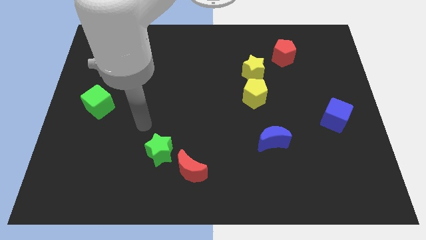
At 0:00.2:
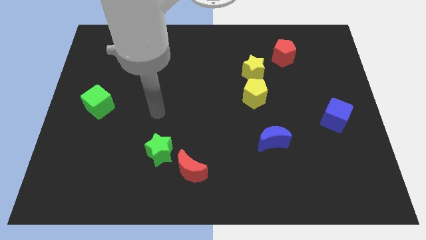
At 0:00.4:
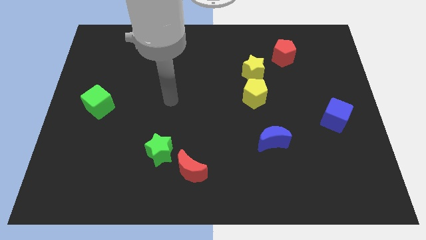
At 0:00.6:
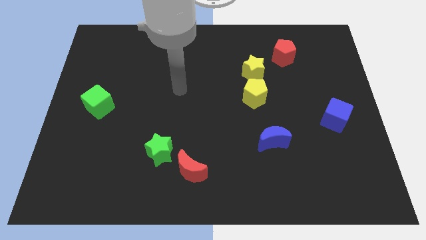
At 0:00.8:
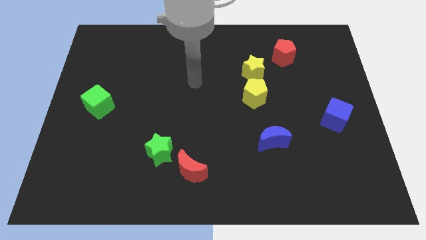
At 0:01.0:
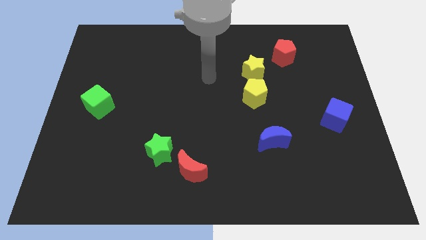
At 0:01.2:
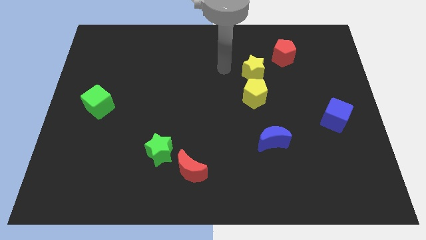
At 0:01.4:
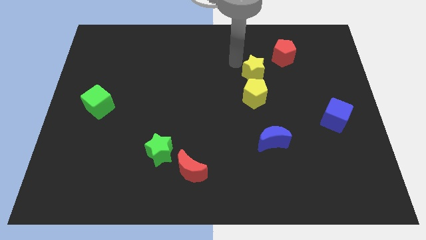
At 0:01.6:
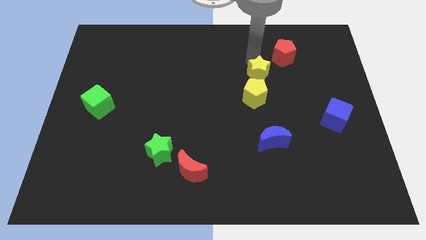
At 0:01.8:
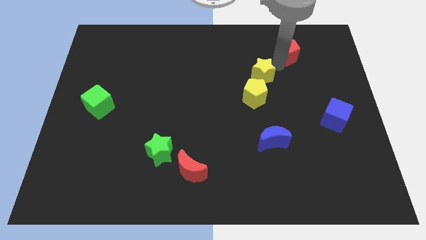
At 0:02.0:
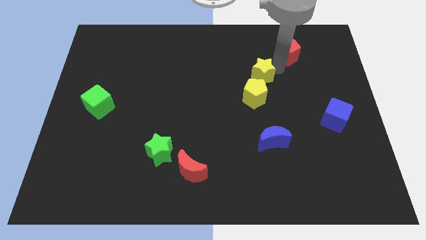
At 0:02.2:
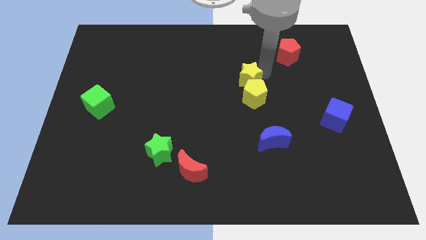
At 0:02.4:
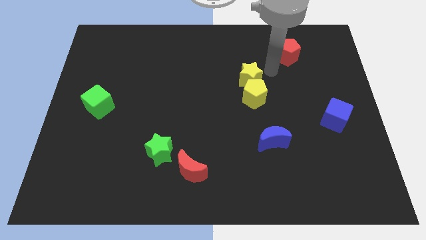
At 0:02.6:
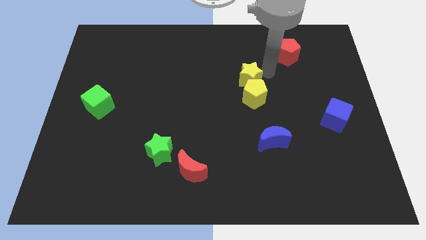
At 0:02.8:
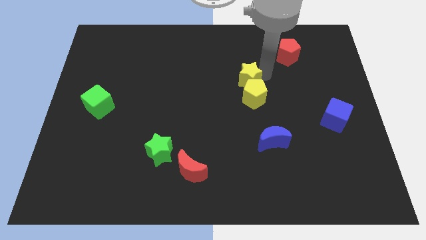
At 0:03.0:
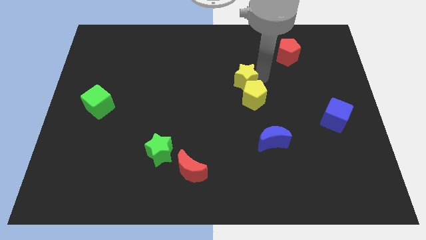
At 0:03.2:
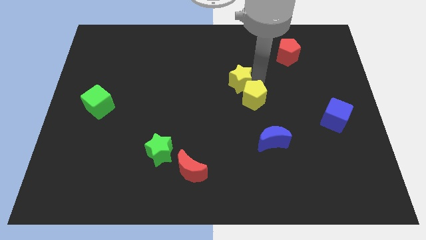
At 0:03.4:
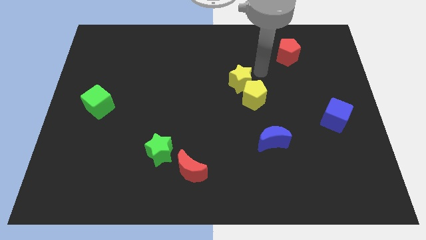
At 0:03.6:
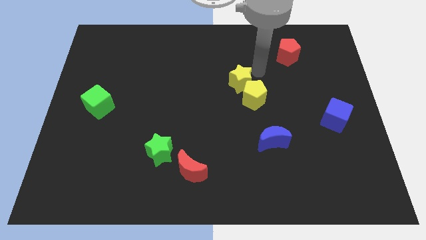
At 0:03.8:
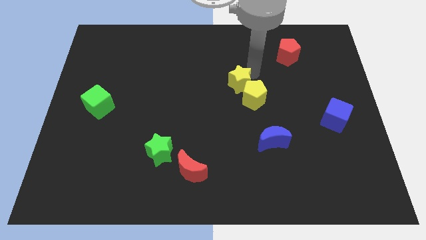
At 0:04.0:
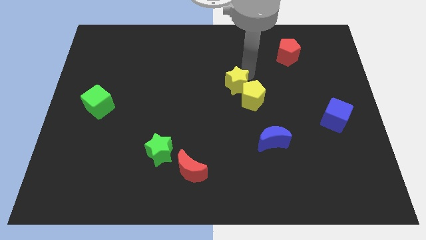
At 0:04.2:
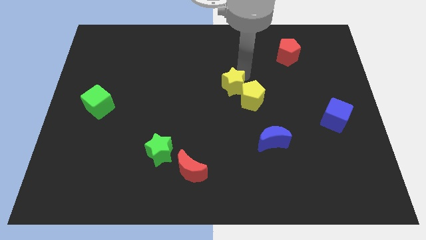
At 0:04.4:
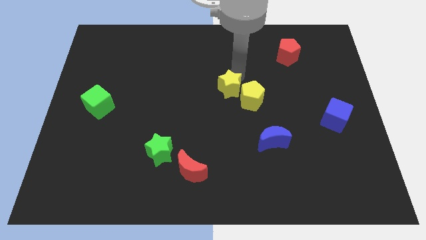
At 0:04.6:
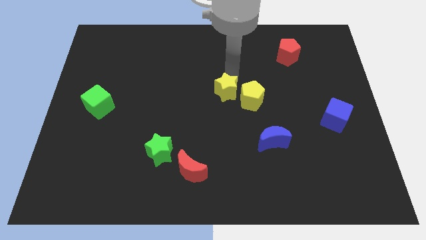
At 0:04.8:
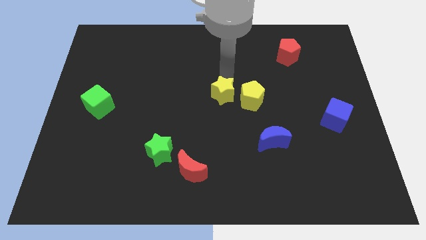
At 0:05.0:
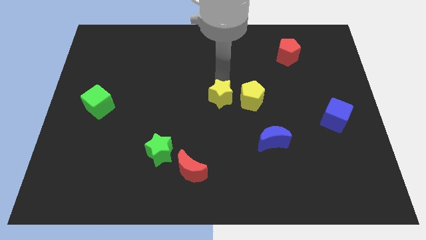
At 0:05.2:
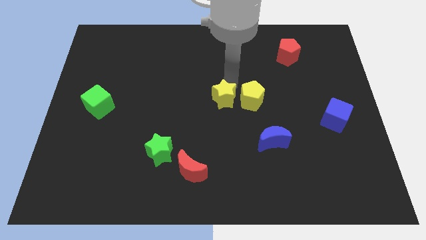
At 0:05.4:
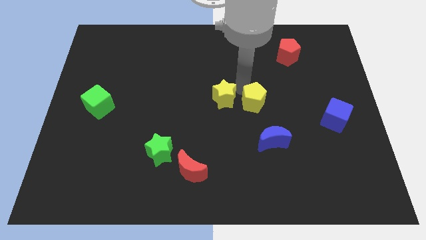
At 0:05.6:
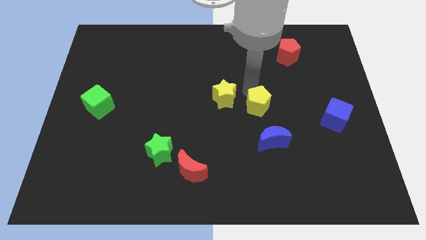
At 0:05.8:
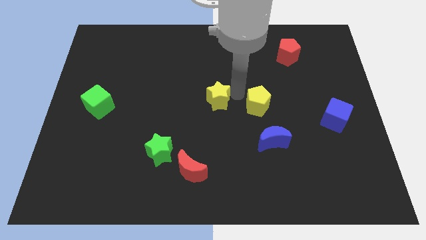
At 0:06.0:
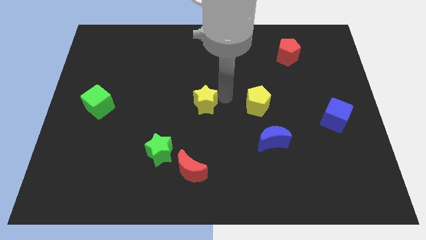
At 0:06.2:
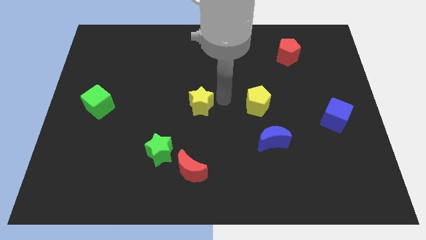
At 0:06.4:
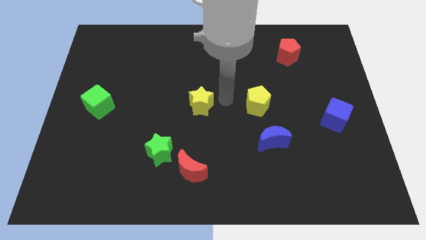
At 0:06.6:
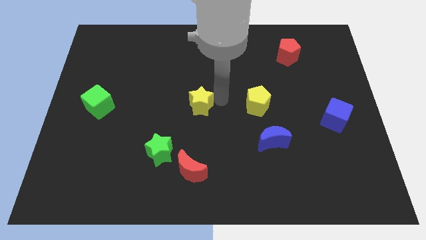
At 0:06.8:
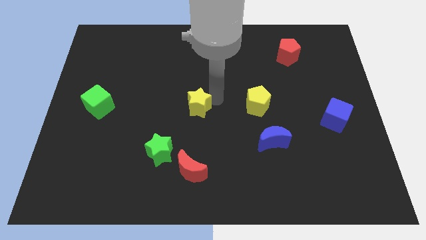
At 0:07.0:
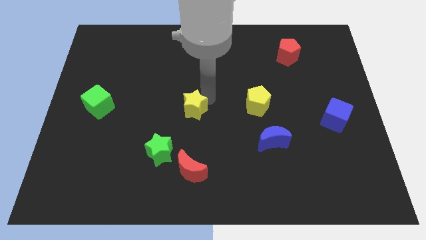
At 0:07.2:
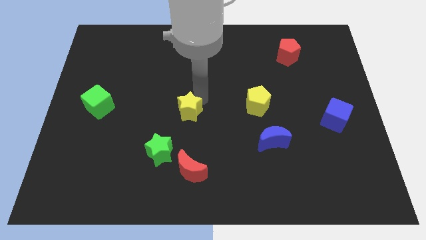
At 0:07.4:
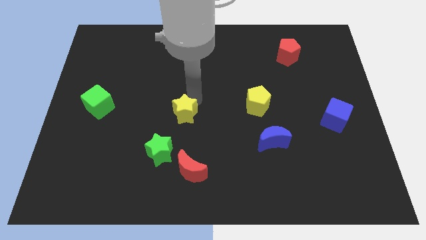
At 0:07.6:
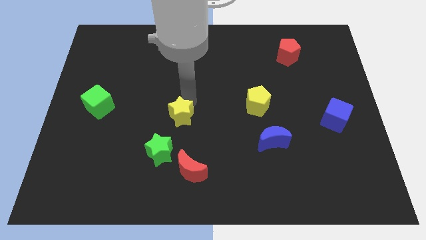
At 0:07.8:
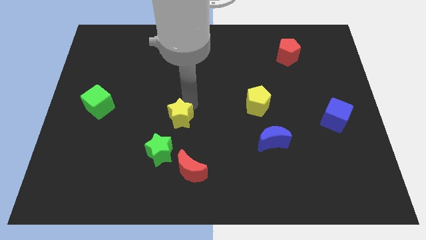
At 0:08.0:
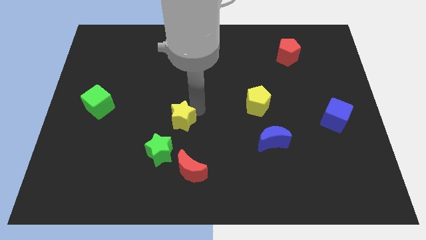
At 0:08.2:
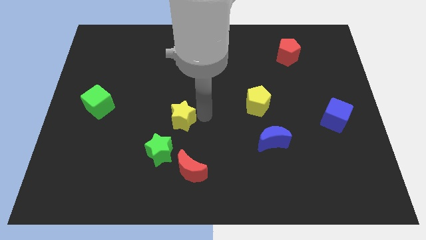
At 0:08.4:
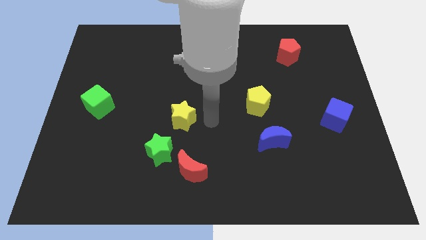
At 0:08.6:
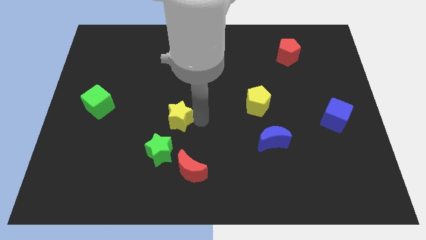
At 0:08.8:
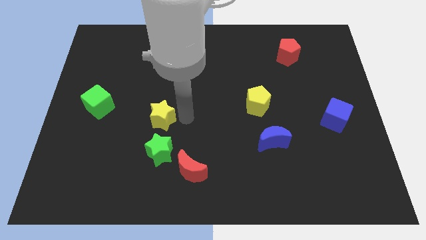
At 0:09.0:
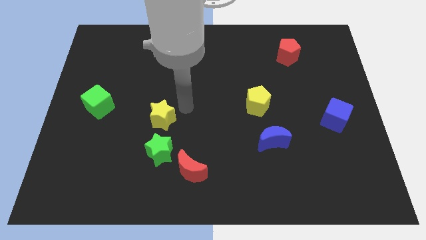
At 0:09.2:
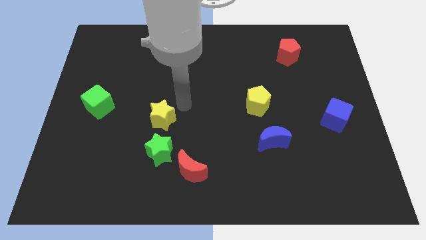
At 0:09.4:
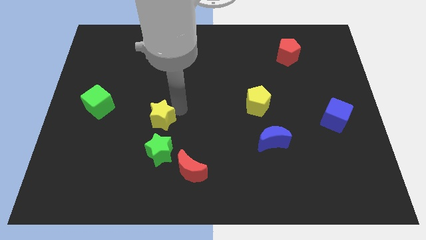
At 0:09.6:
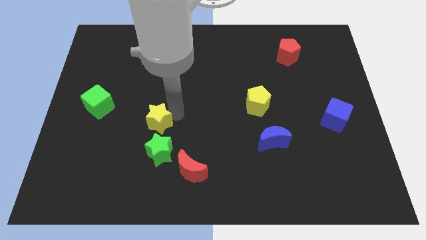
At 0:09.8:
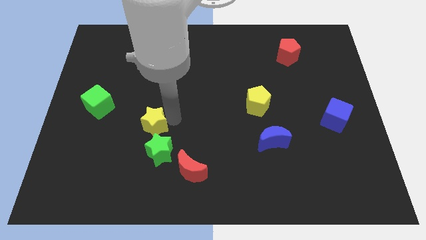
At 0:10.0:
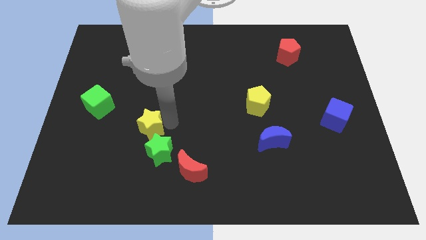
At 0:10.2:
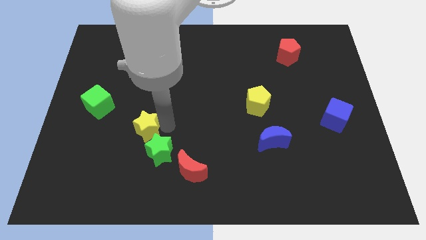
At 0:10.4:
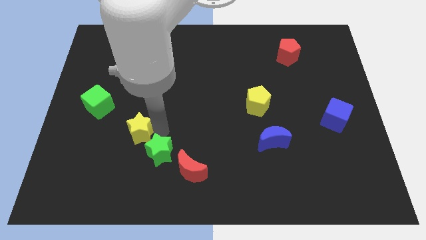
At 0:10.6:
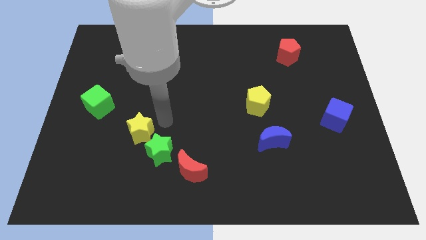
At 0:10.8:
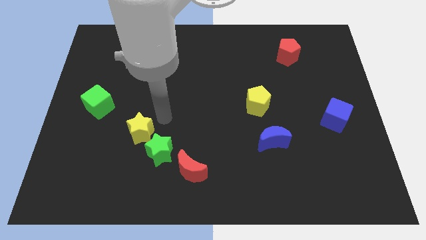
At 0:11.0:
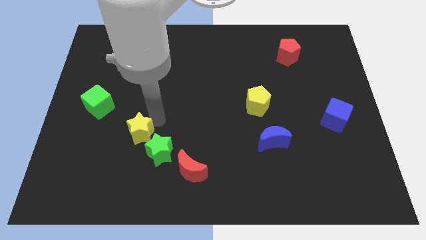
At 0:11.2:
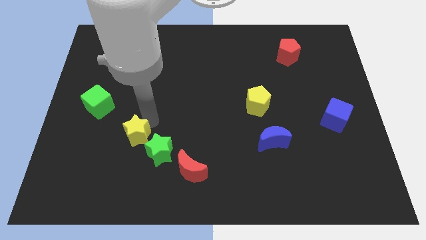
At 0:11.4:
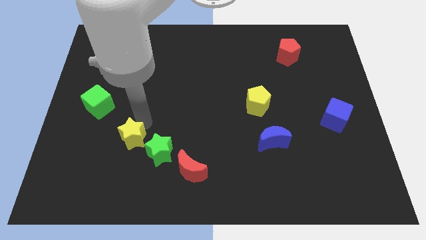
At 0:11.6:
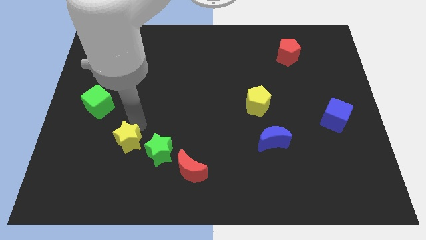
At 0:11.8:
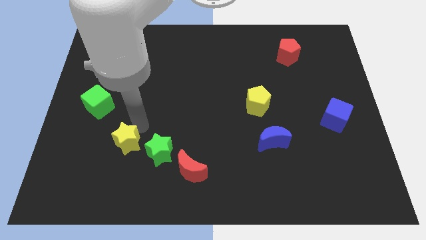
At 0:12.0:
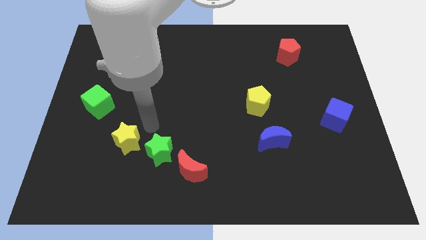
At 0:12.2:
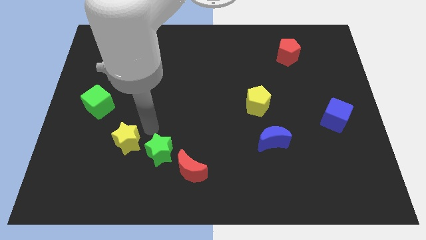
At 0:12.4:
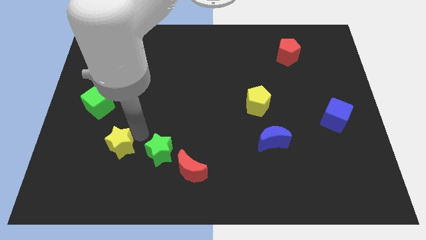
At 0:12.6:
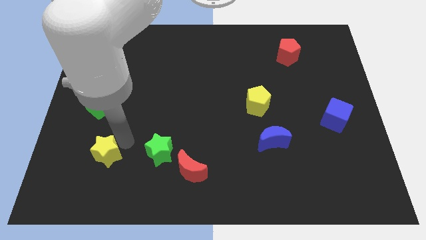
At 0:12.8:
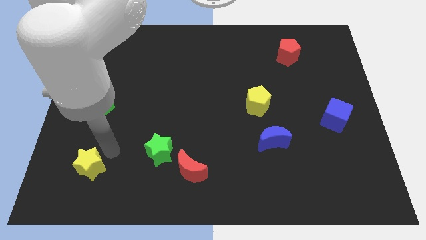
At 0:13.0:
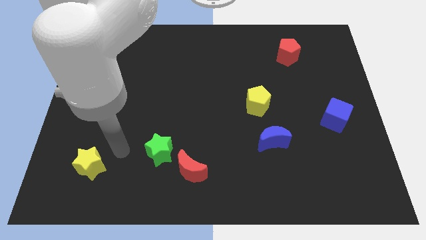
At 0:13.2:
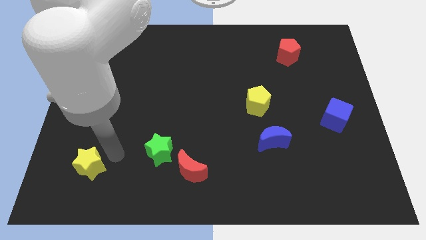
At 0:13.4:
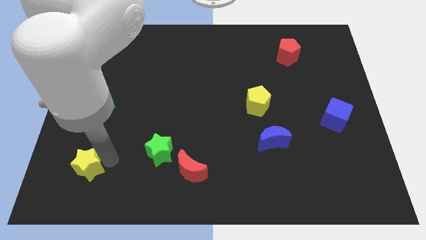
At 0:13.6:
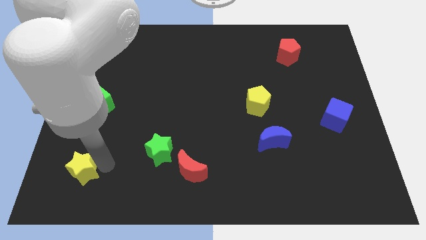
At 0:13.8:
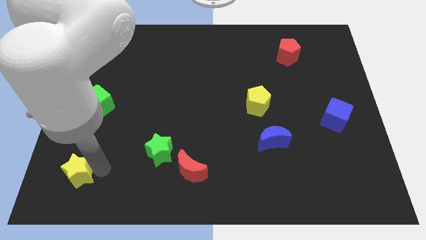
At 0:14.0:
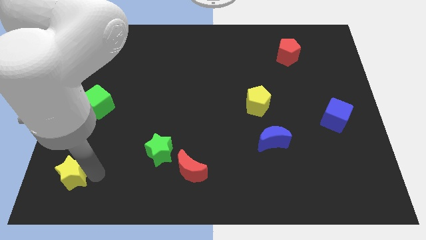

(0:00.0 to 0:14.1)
slide the yellow star to the bottom left
